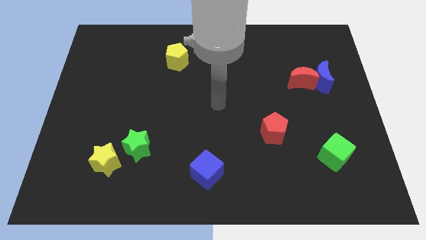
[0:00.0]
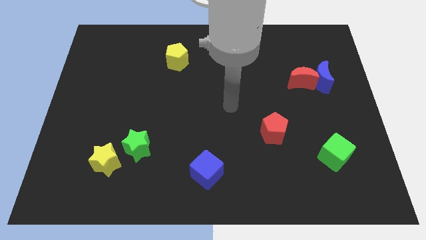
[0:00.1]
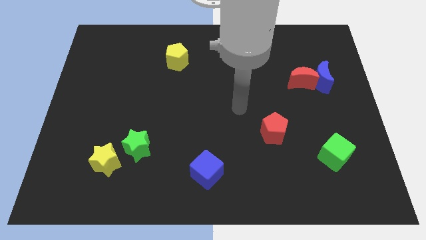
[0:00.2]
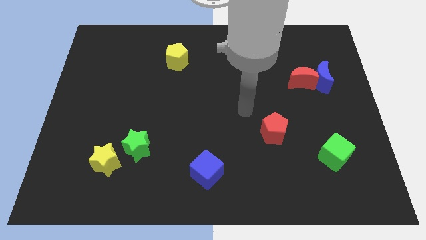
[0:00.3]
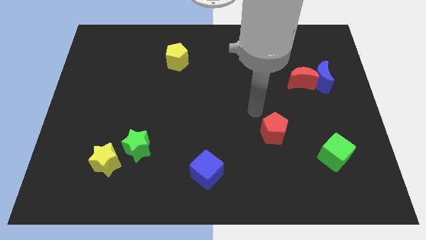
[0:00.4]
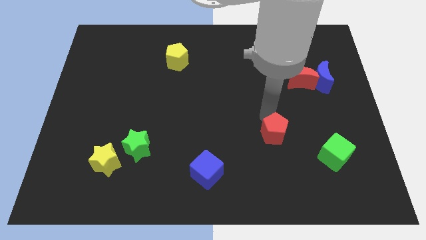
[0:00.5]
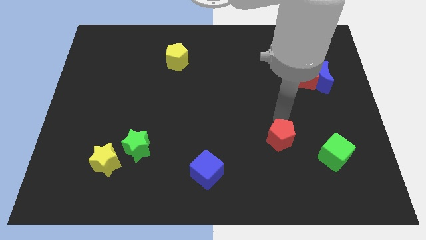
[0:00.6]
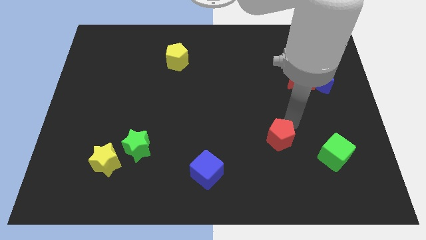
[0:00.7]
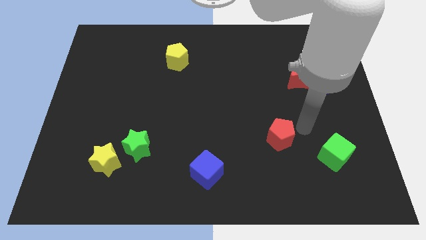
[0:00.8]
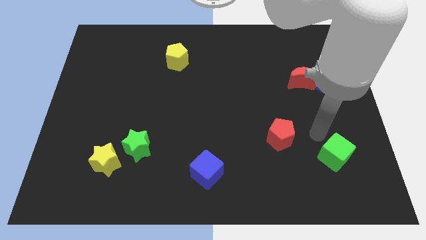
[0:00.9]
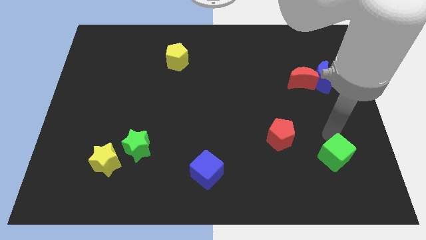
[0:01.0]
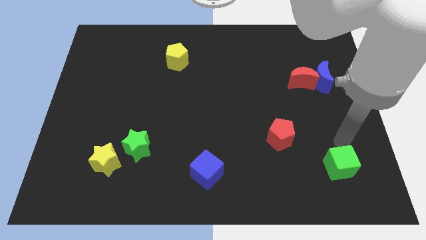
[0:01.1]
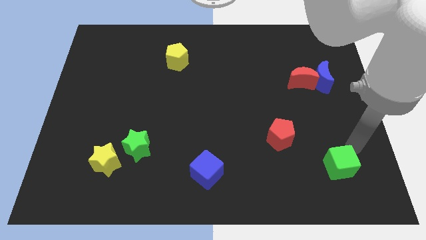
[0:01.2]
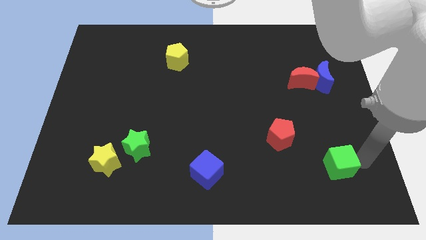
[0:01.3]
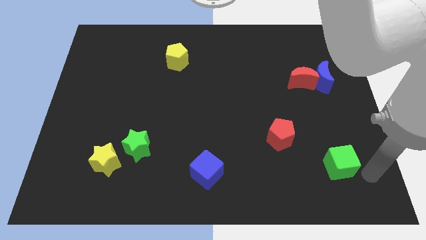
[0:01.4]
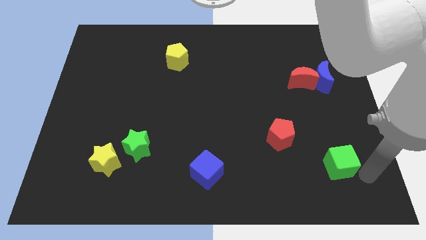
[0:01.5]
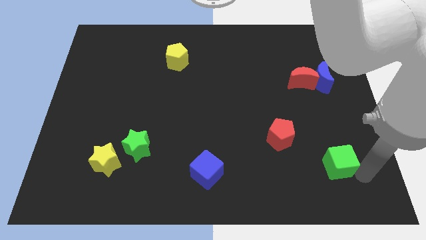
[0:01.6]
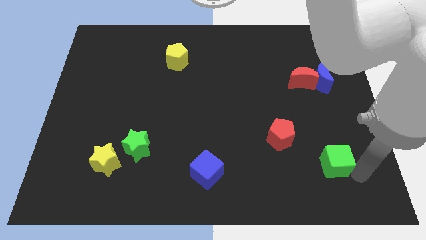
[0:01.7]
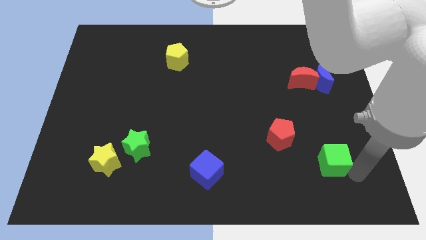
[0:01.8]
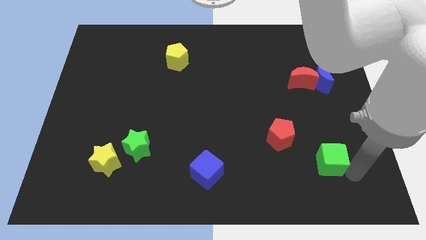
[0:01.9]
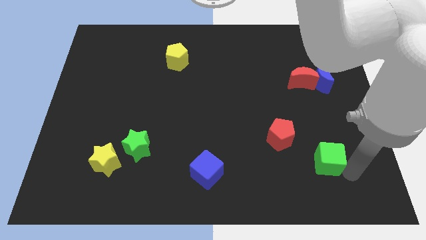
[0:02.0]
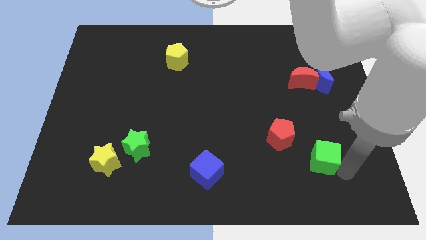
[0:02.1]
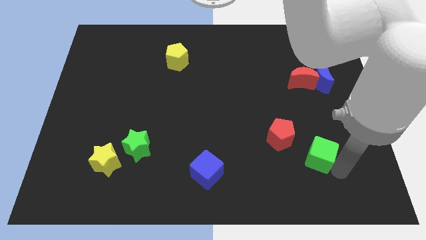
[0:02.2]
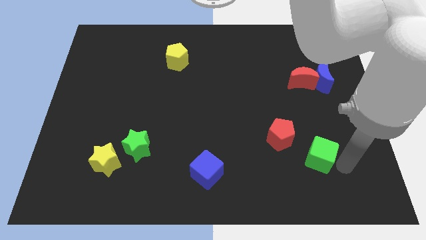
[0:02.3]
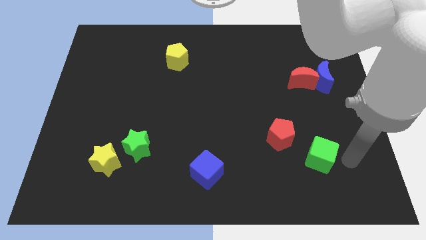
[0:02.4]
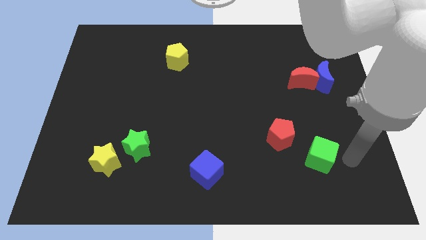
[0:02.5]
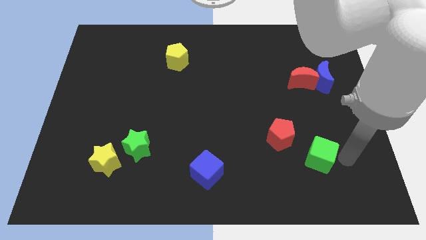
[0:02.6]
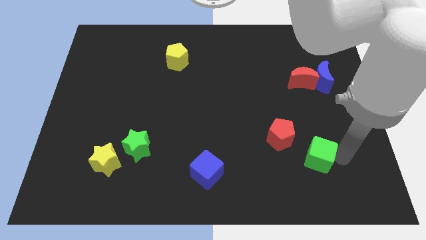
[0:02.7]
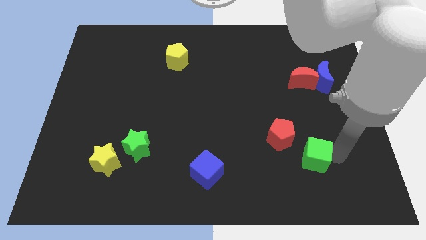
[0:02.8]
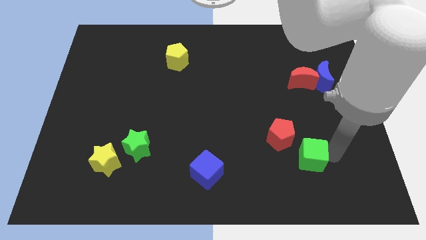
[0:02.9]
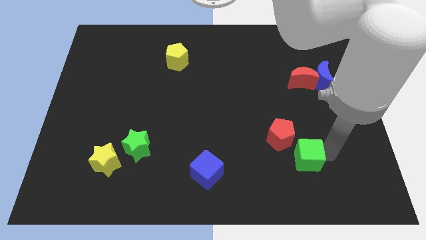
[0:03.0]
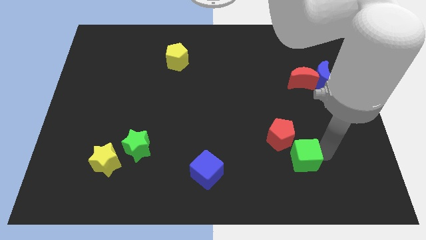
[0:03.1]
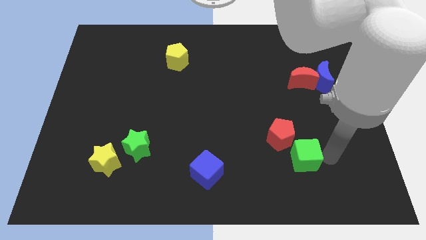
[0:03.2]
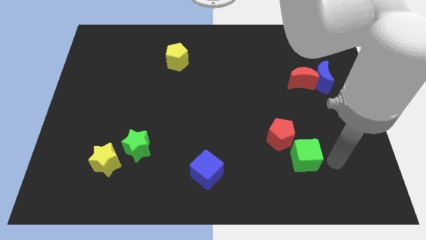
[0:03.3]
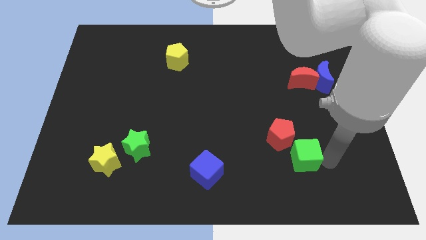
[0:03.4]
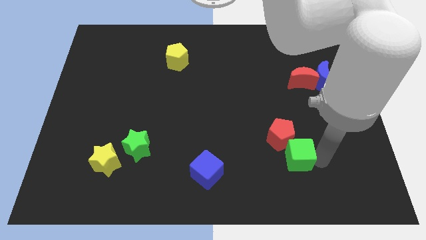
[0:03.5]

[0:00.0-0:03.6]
push the green cube left somewhat

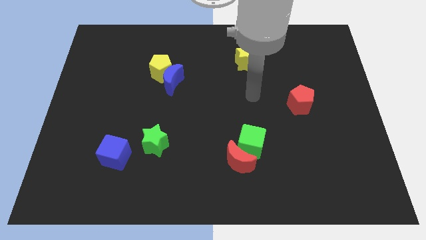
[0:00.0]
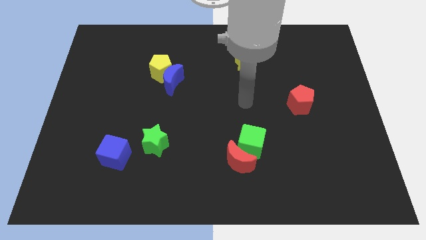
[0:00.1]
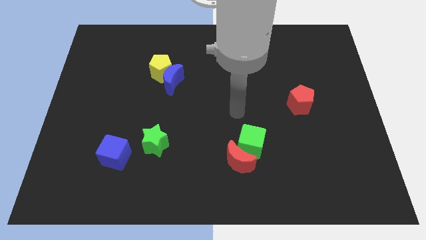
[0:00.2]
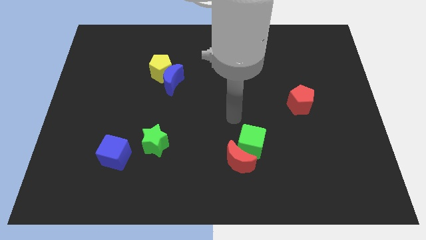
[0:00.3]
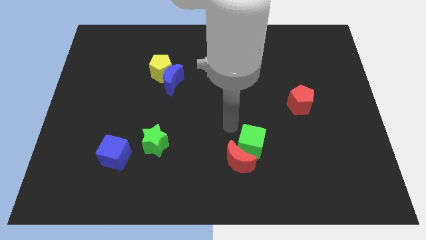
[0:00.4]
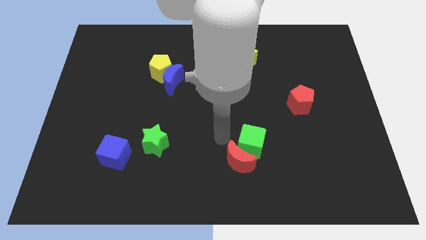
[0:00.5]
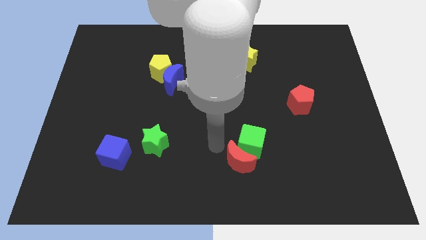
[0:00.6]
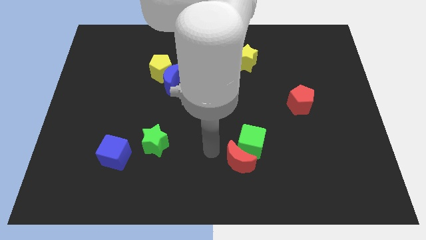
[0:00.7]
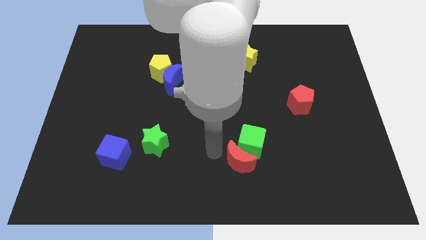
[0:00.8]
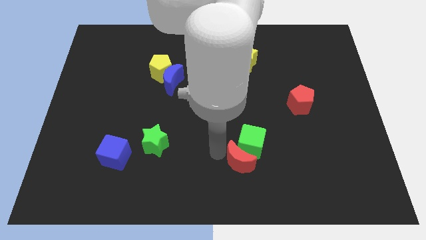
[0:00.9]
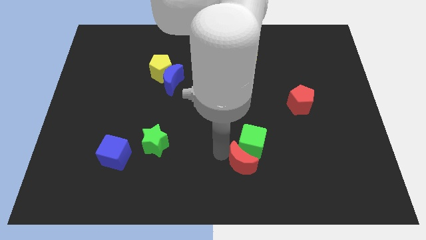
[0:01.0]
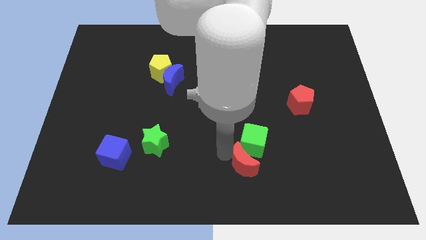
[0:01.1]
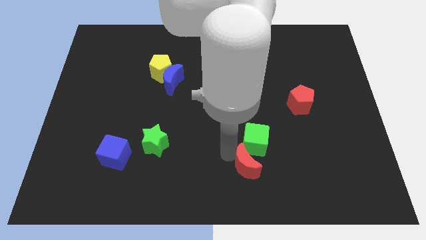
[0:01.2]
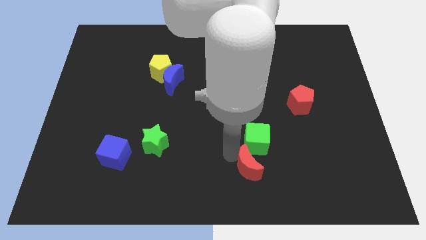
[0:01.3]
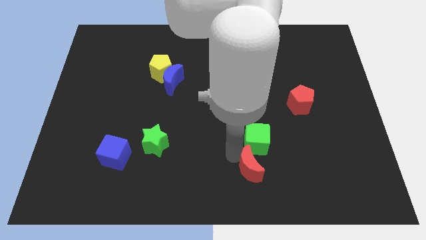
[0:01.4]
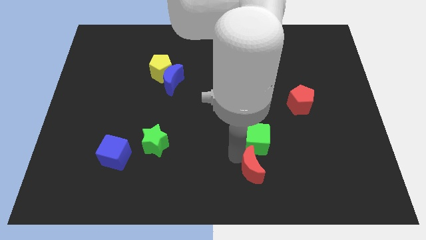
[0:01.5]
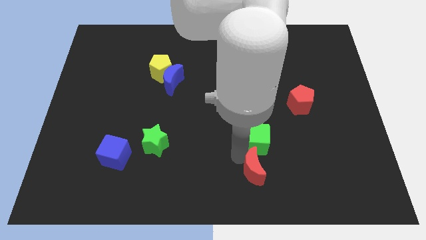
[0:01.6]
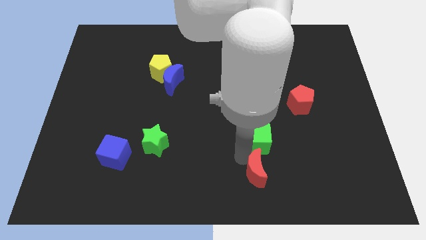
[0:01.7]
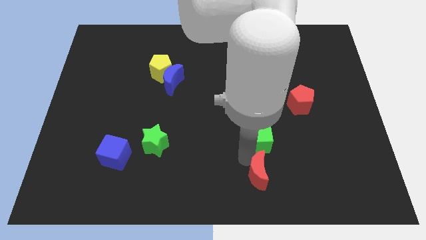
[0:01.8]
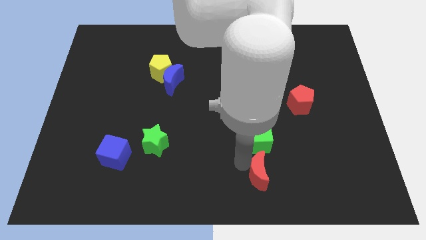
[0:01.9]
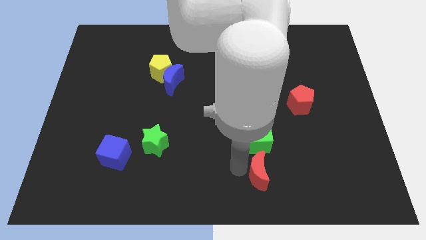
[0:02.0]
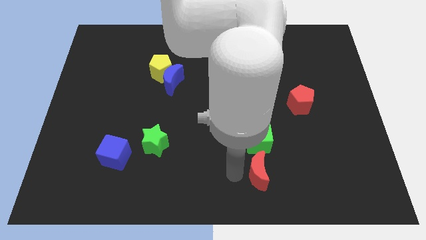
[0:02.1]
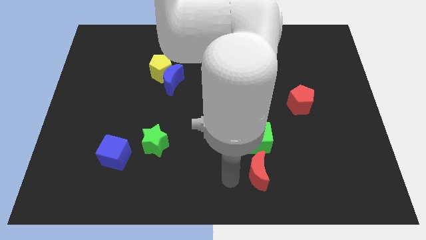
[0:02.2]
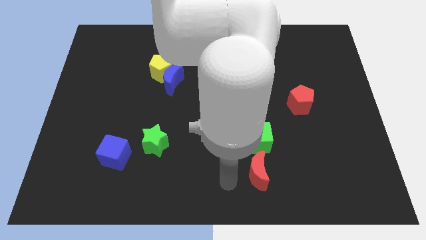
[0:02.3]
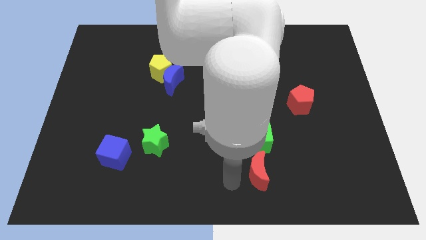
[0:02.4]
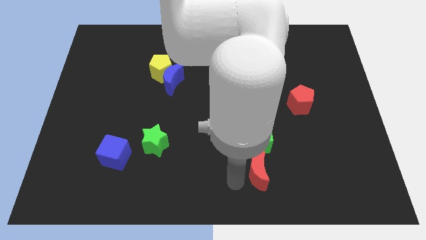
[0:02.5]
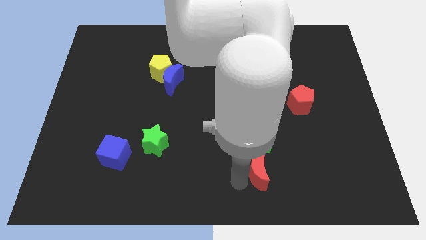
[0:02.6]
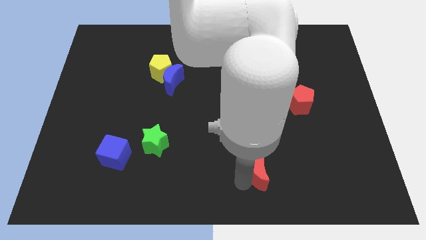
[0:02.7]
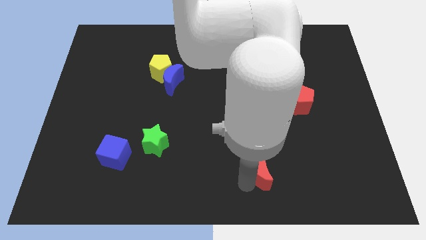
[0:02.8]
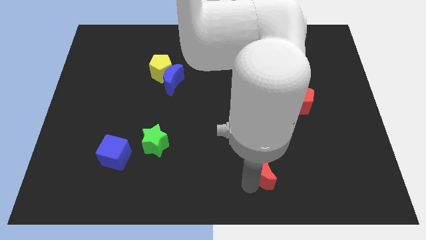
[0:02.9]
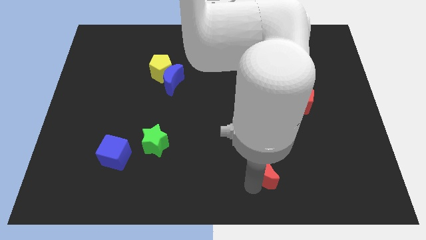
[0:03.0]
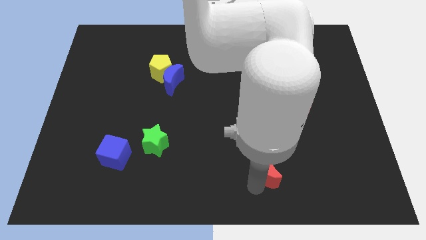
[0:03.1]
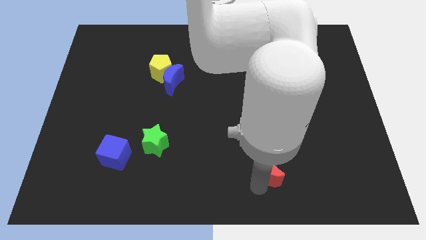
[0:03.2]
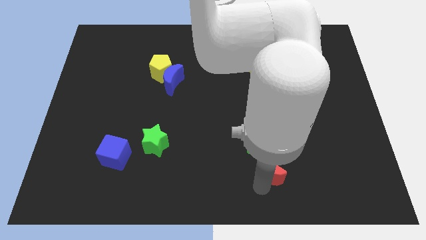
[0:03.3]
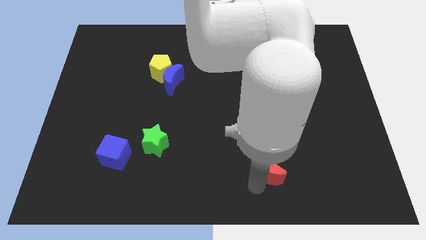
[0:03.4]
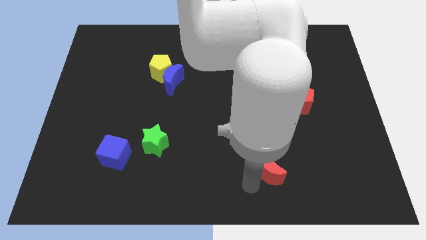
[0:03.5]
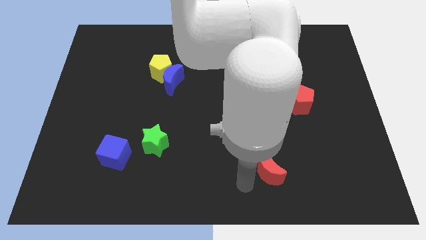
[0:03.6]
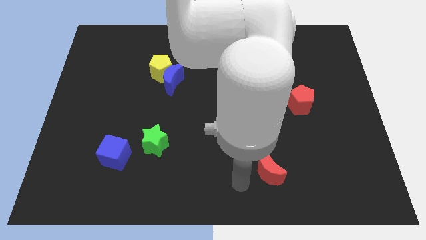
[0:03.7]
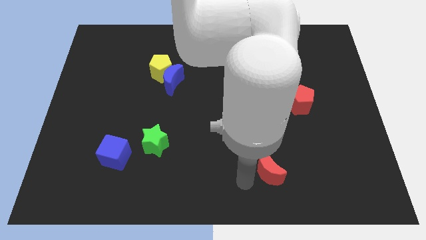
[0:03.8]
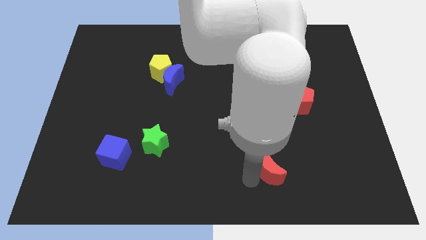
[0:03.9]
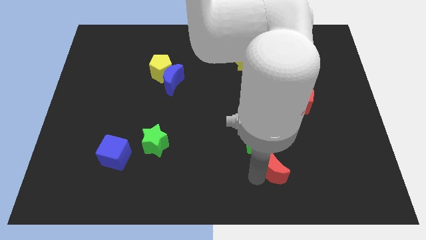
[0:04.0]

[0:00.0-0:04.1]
slide the red moon to the right a little

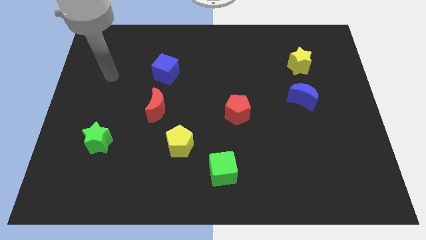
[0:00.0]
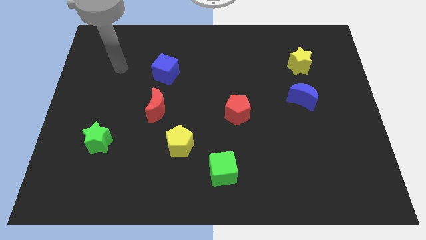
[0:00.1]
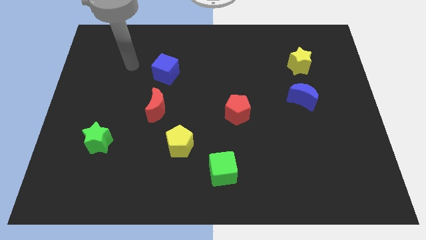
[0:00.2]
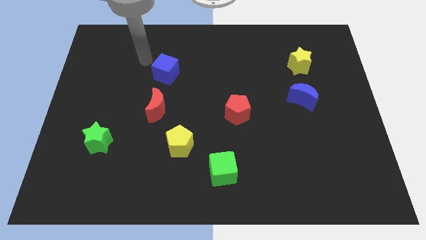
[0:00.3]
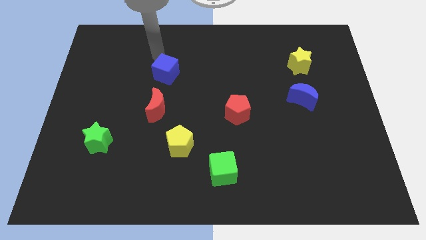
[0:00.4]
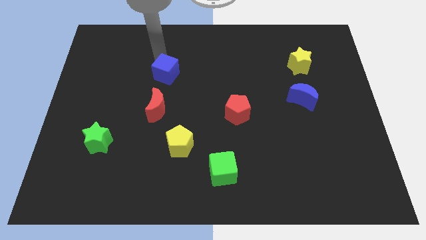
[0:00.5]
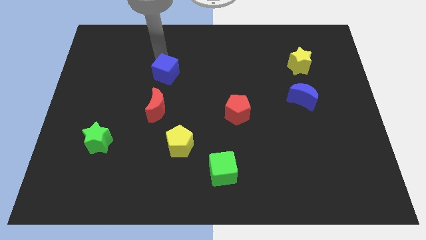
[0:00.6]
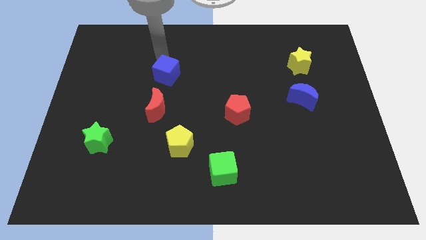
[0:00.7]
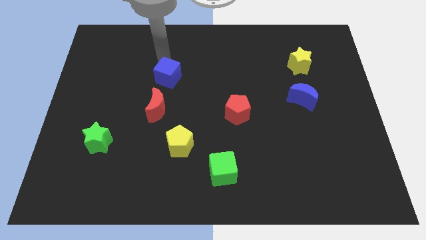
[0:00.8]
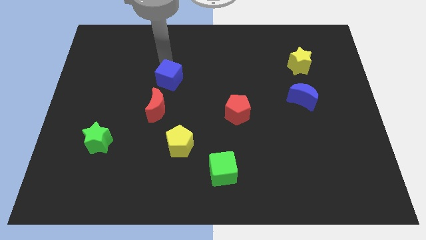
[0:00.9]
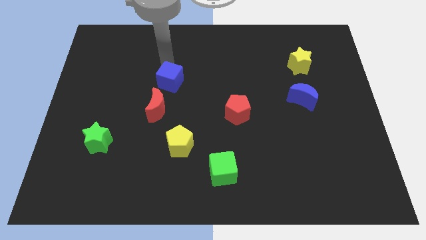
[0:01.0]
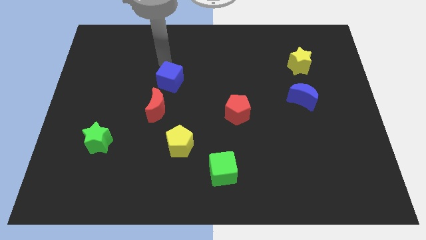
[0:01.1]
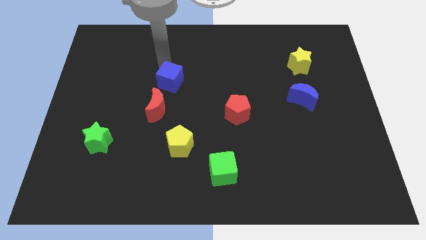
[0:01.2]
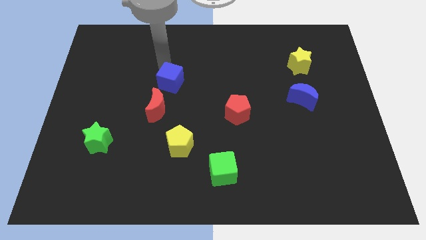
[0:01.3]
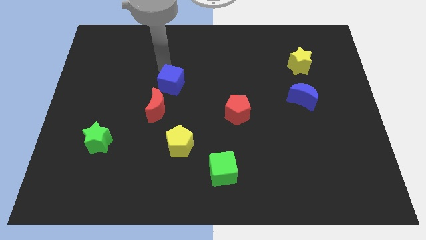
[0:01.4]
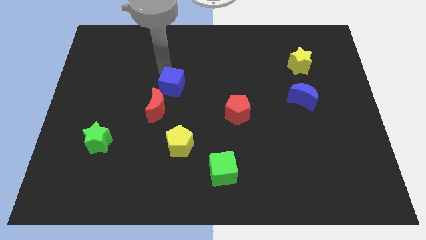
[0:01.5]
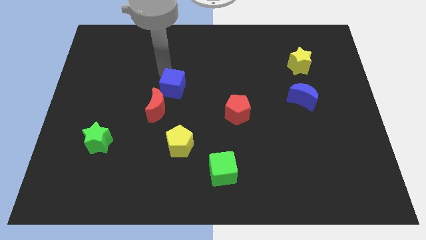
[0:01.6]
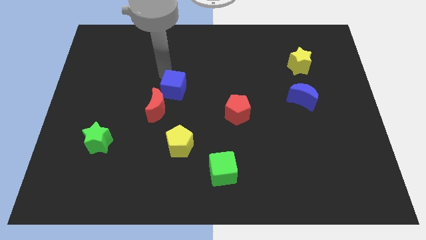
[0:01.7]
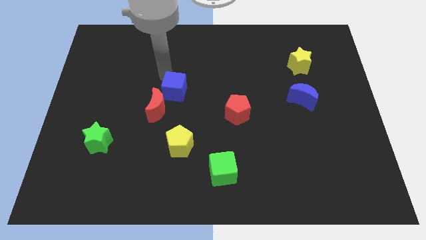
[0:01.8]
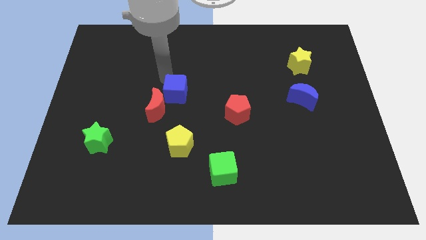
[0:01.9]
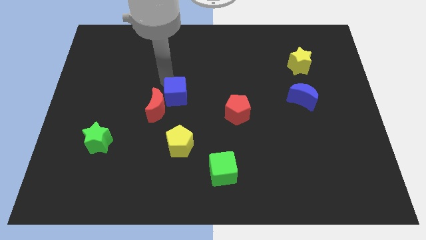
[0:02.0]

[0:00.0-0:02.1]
slightly slide the blue cube downwards
